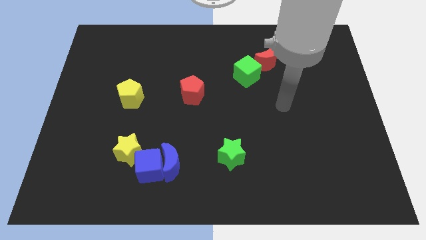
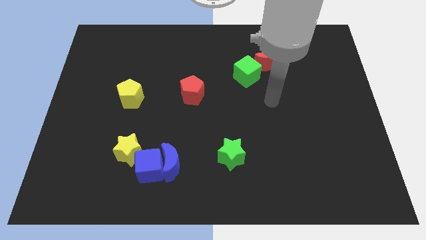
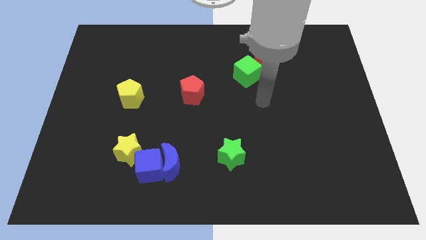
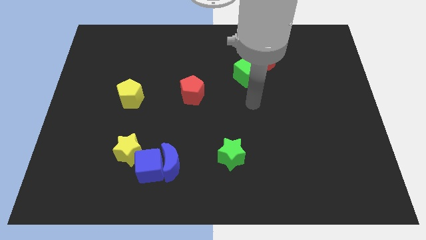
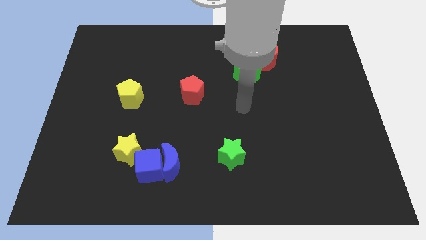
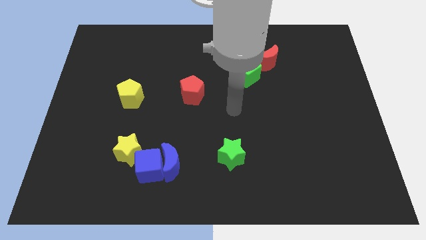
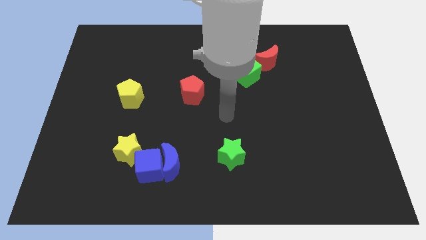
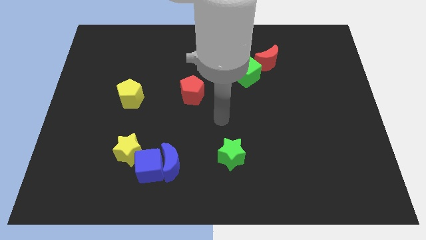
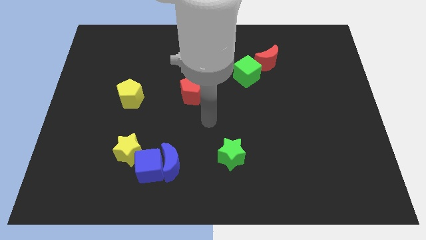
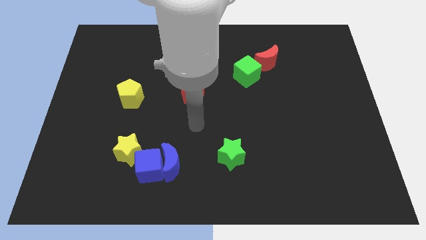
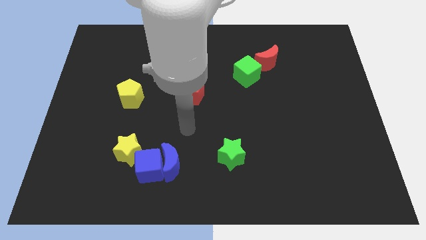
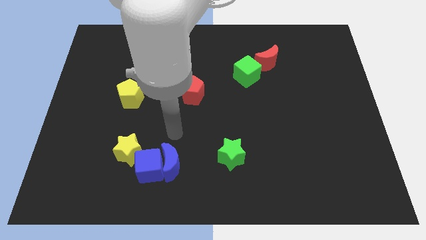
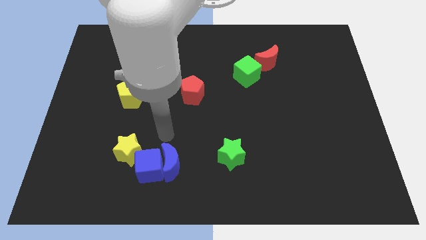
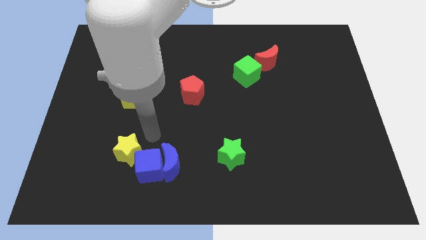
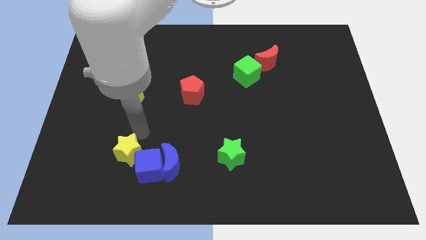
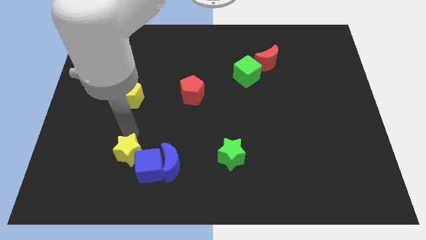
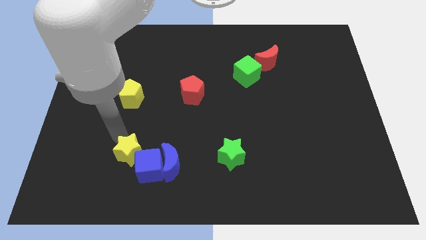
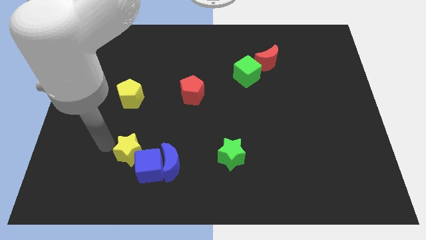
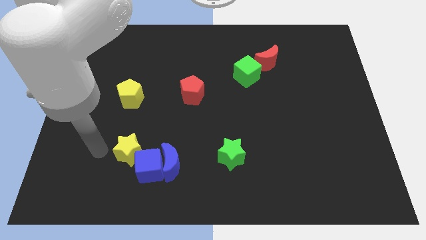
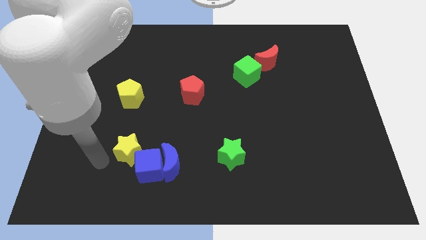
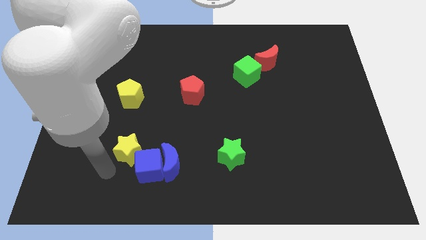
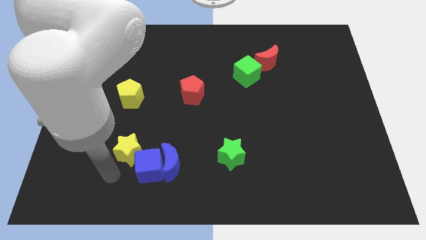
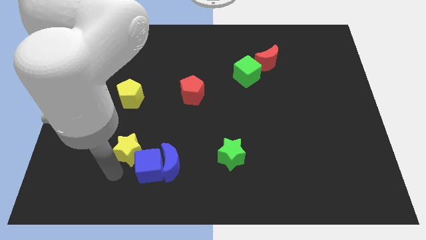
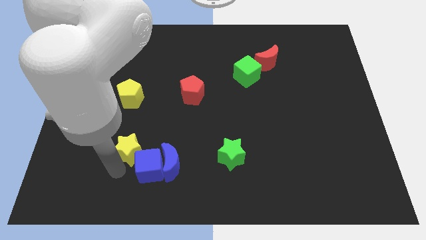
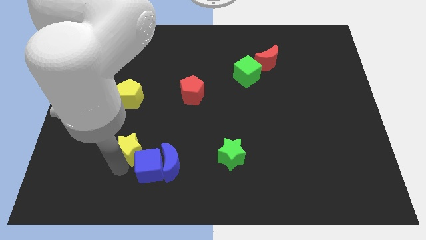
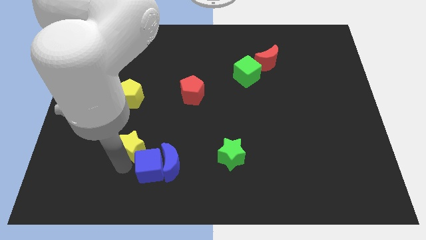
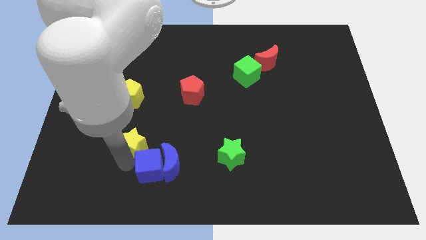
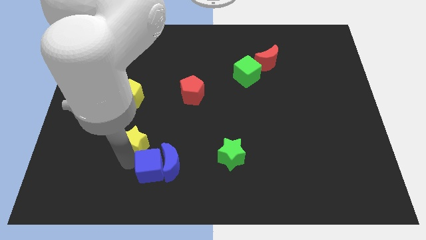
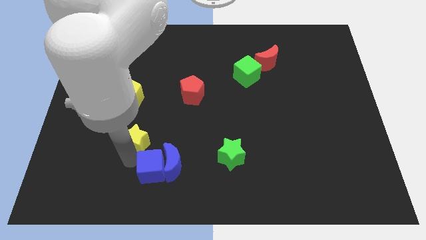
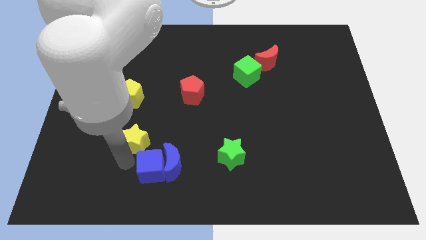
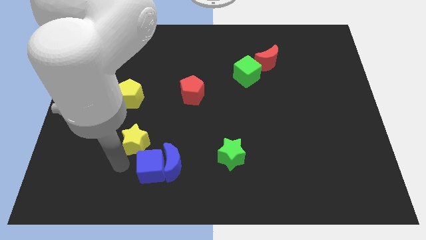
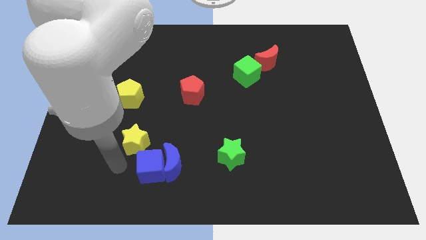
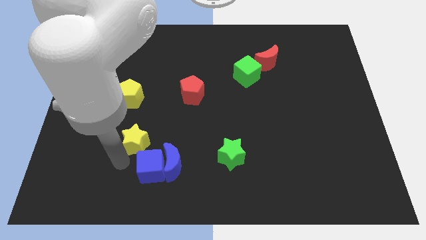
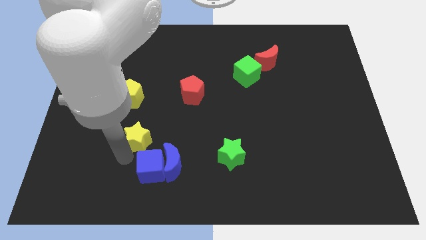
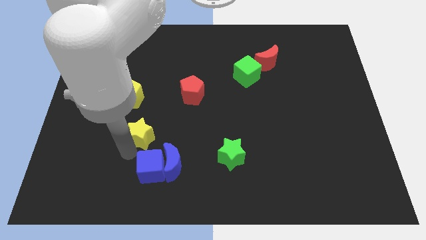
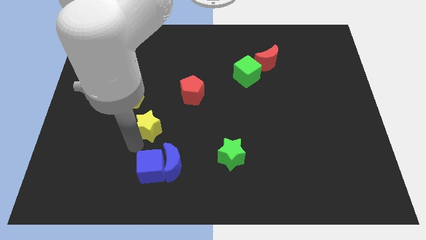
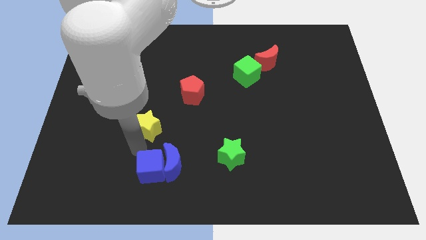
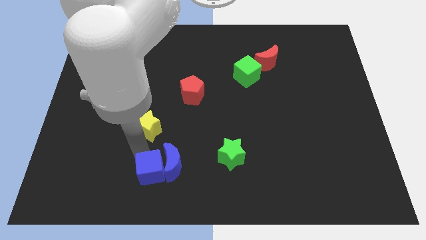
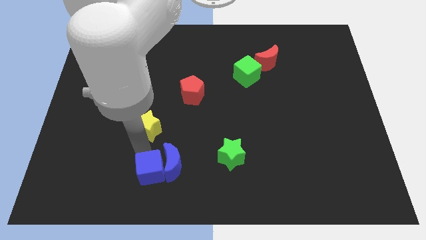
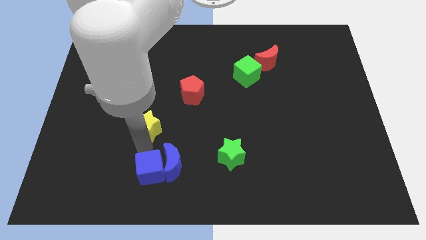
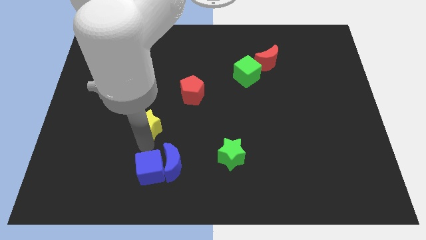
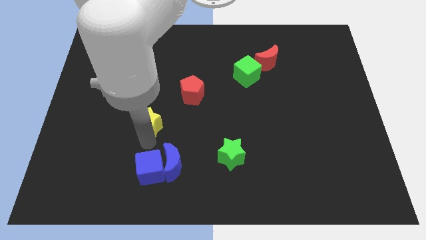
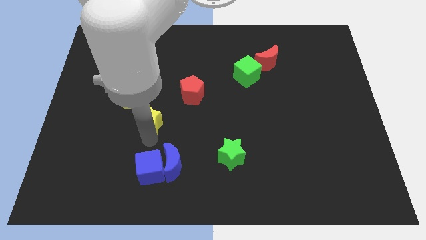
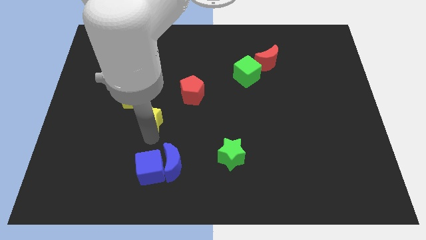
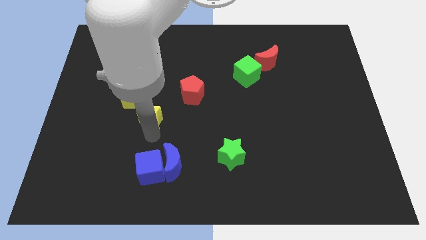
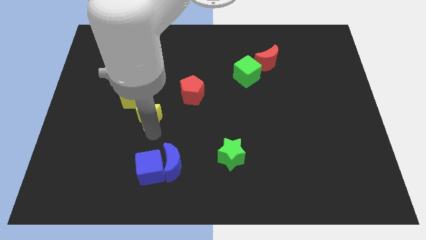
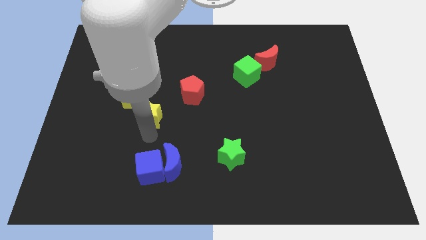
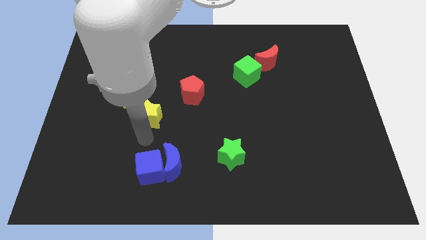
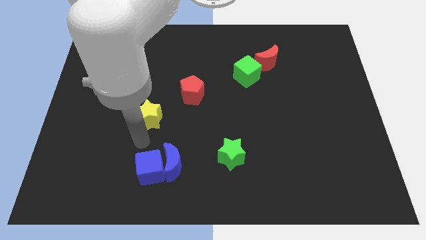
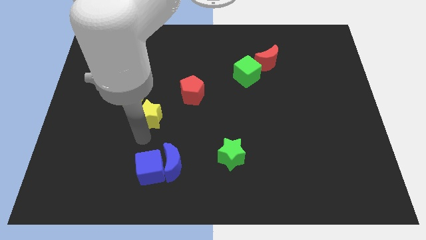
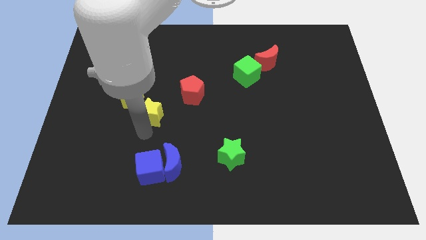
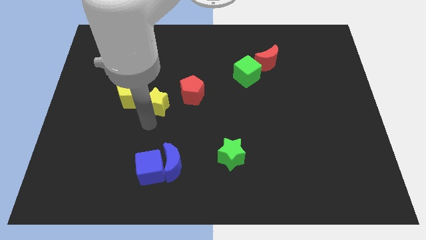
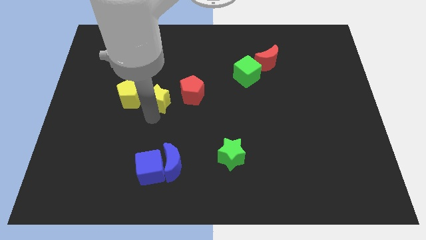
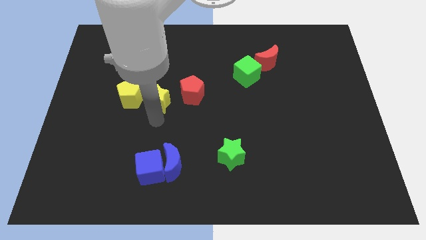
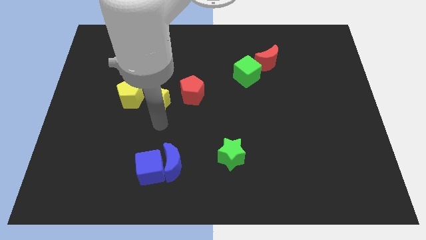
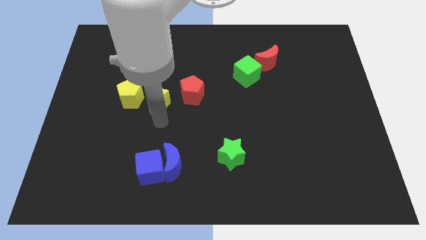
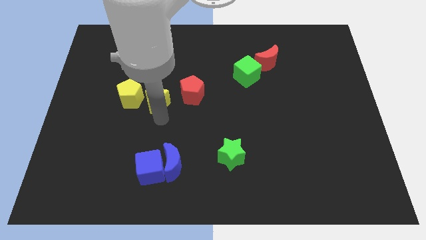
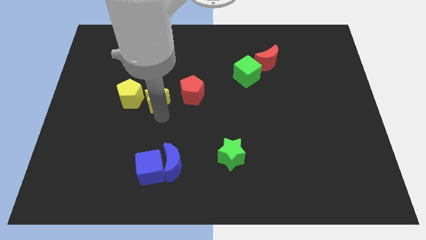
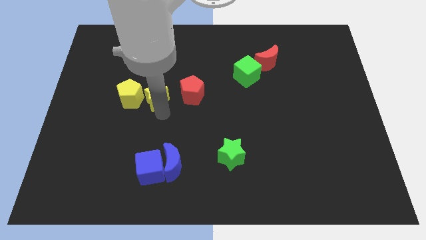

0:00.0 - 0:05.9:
put the yellow star to the top right side of the yellow pentagon

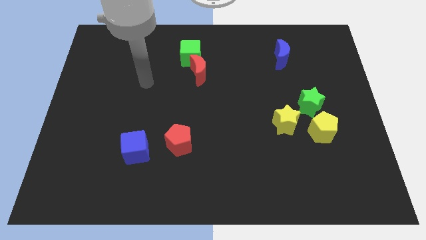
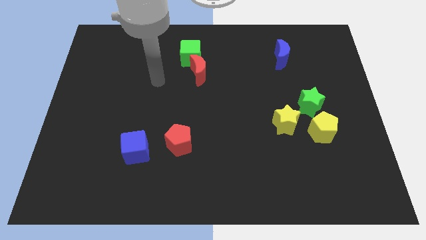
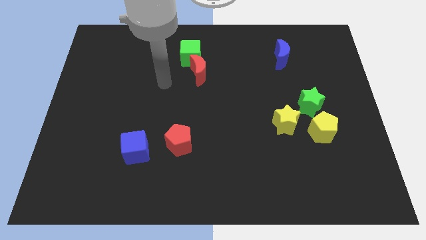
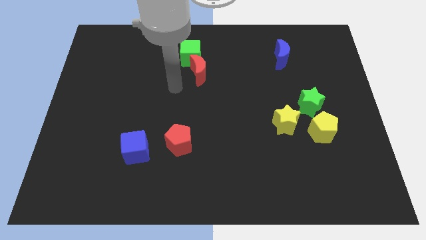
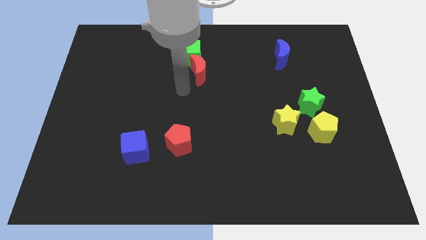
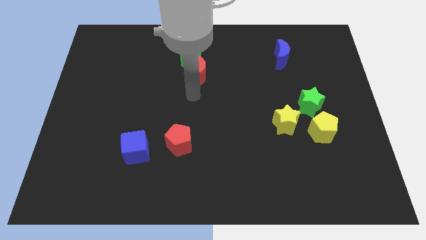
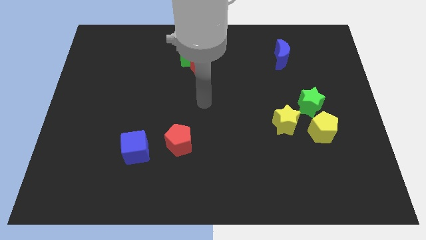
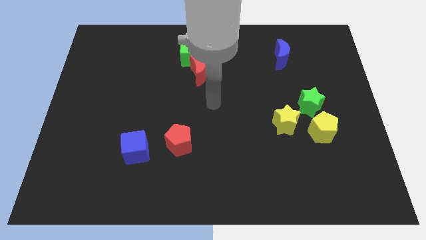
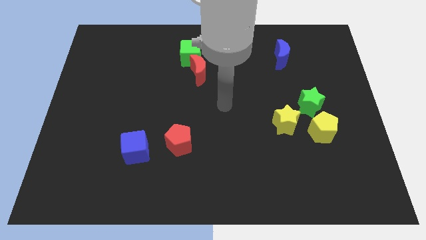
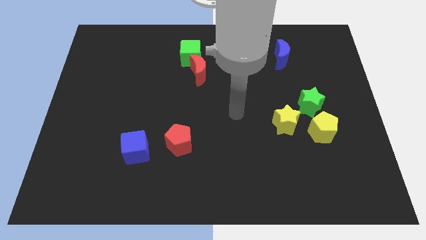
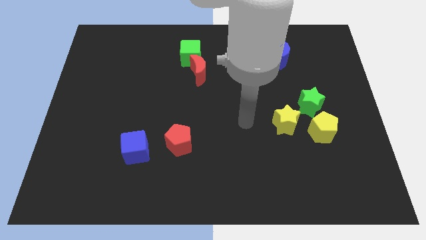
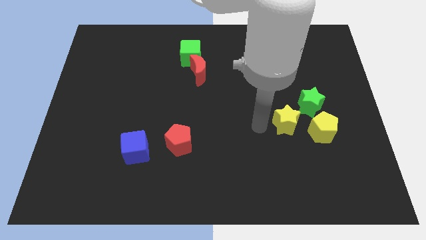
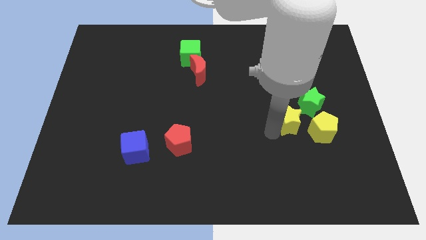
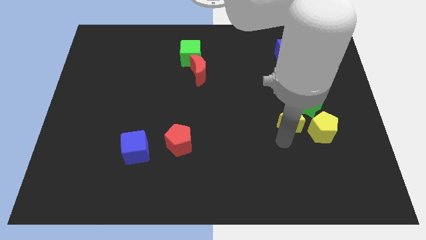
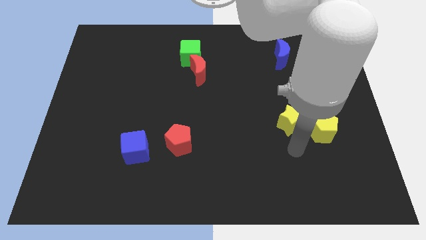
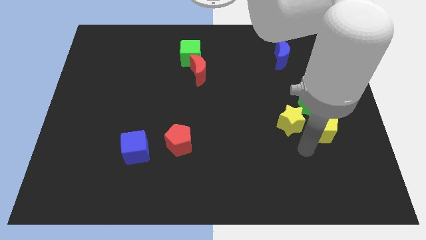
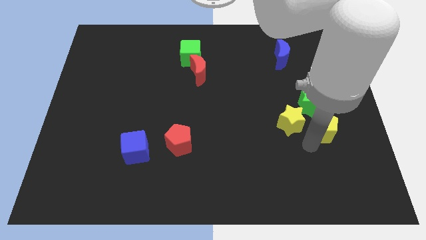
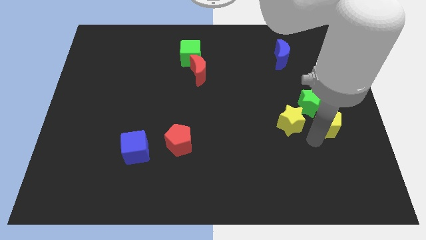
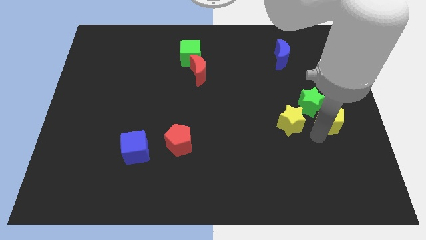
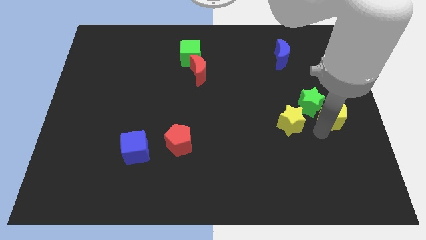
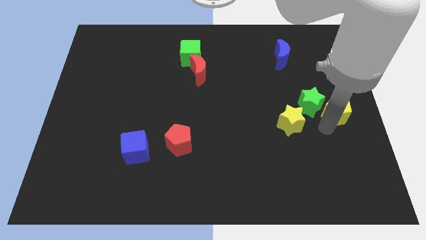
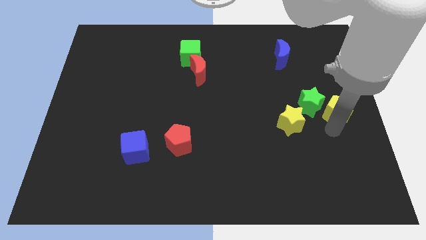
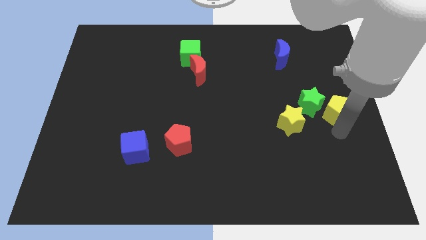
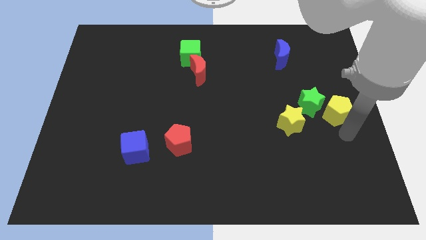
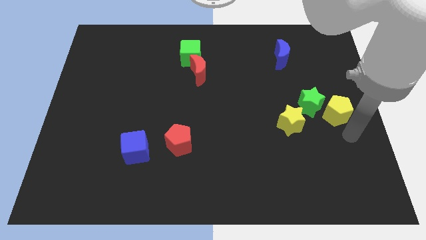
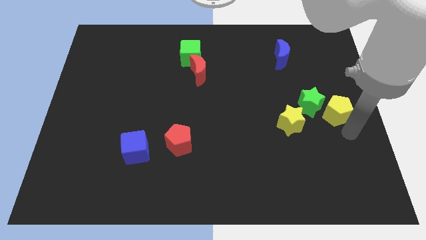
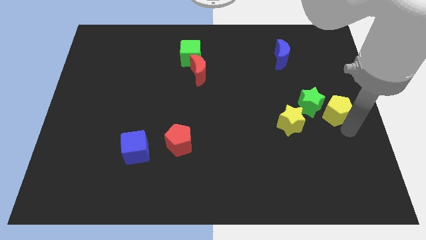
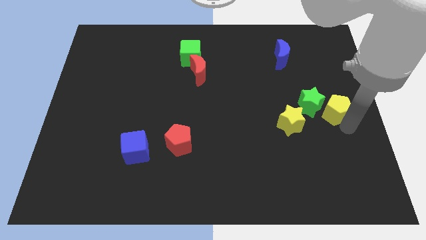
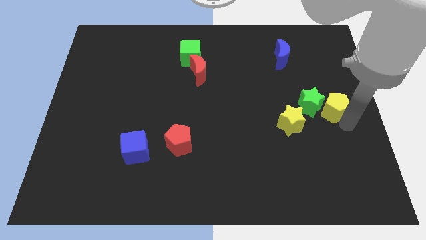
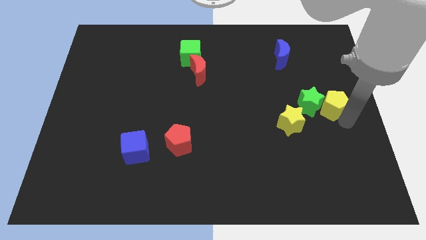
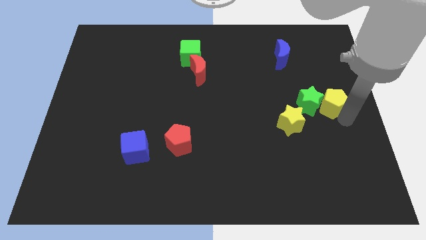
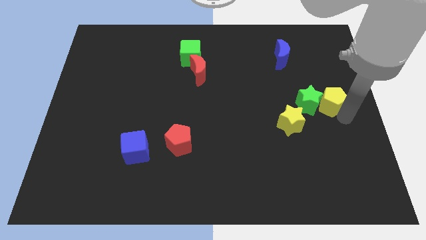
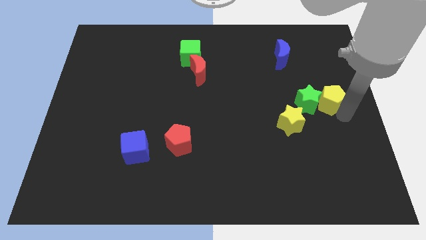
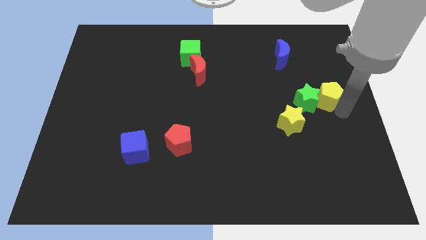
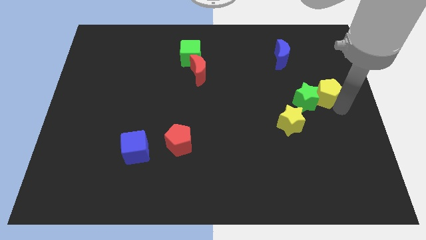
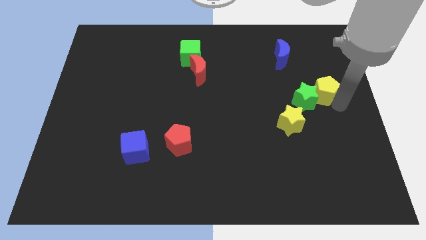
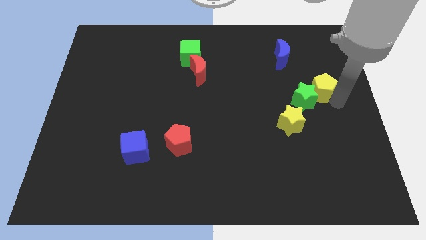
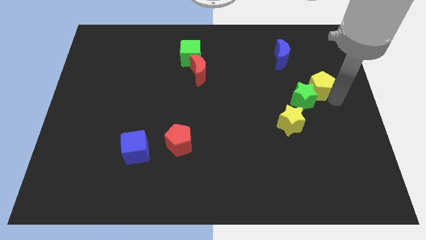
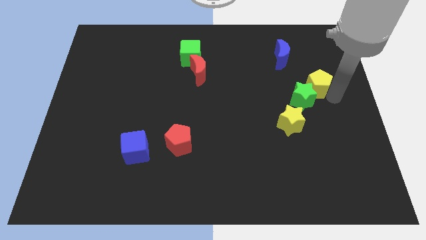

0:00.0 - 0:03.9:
put the yellow pentagon to the bottom right of the blue moon
